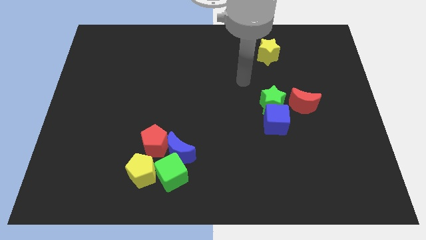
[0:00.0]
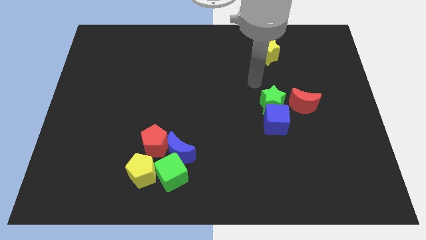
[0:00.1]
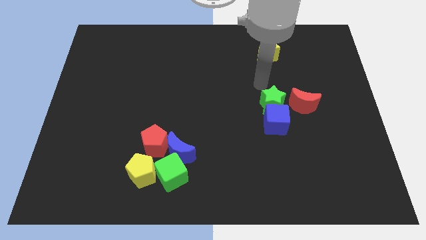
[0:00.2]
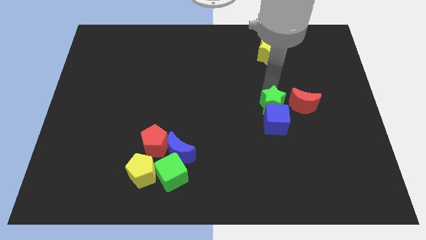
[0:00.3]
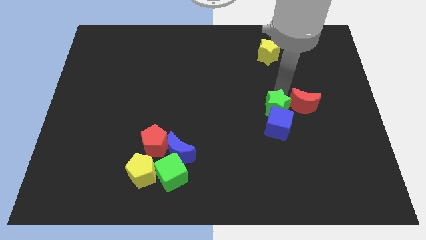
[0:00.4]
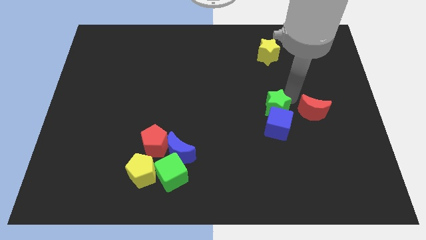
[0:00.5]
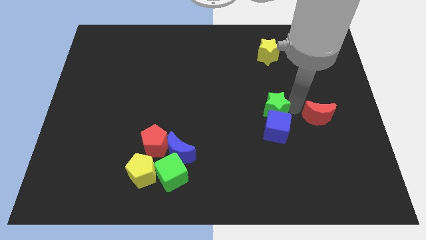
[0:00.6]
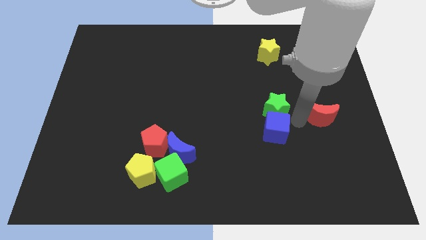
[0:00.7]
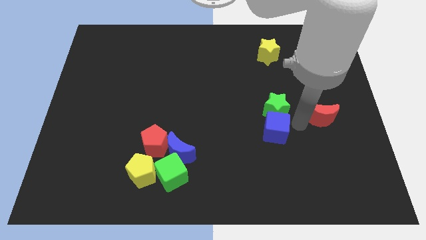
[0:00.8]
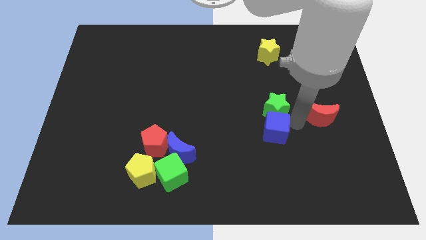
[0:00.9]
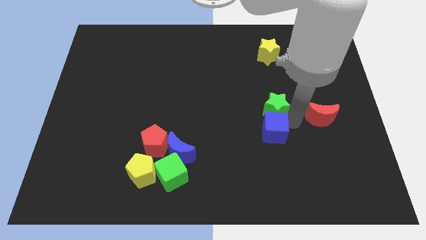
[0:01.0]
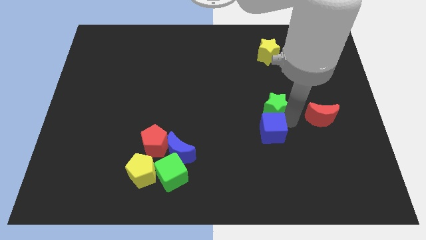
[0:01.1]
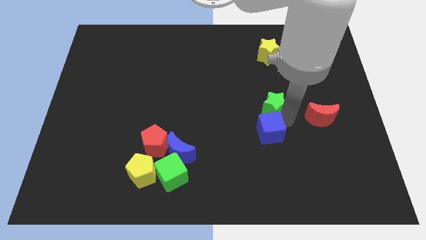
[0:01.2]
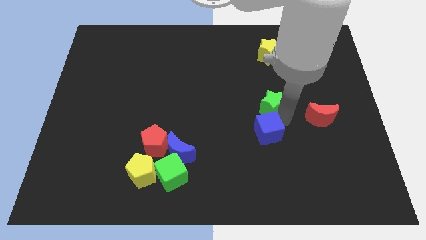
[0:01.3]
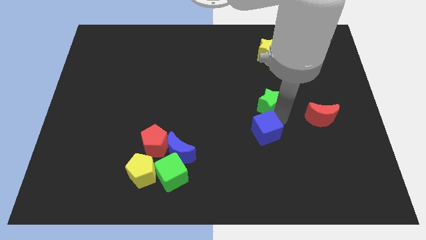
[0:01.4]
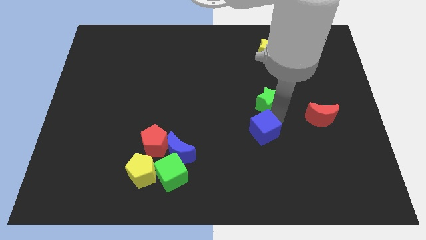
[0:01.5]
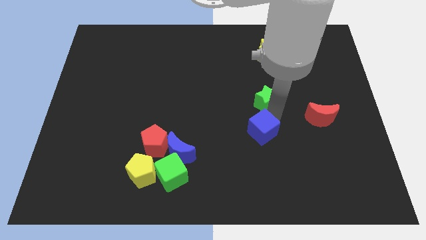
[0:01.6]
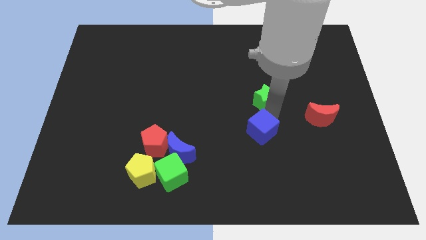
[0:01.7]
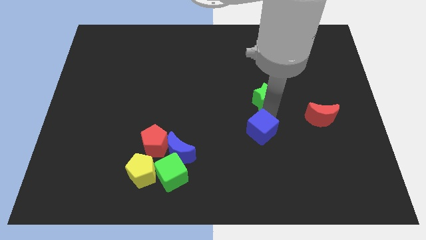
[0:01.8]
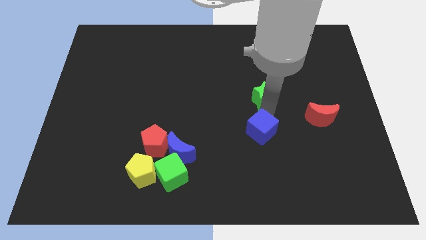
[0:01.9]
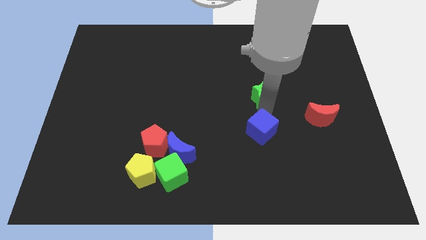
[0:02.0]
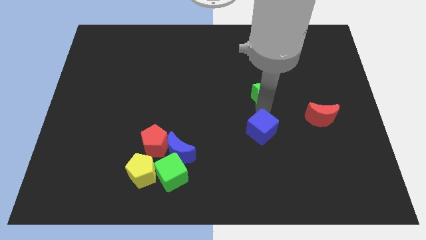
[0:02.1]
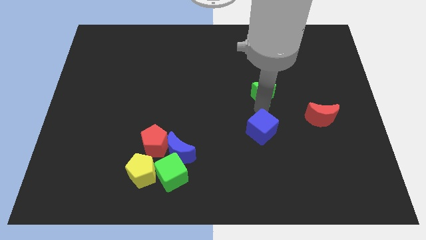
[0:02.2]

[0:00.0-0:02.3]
pull the green star apart from the blue cube and red moon

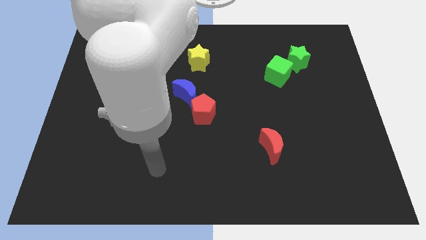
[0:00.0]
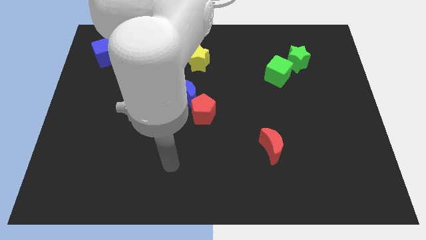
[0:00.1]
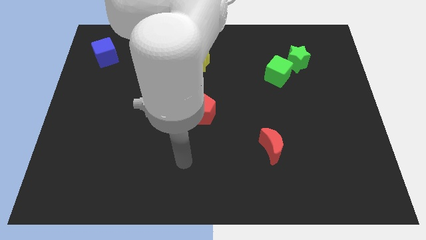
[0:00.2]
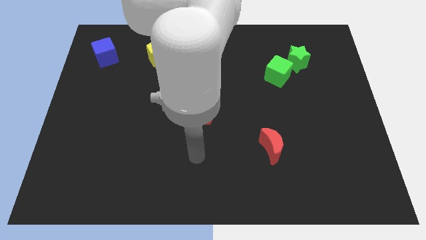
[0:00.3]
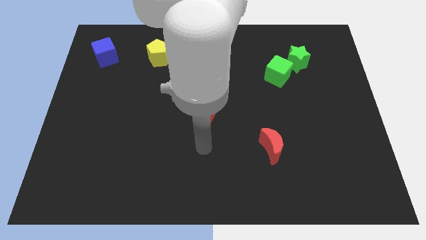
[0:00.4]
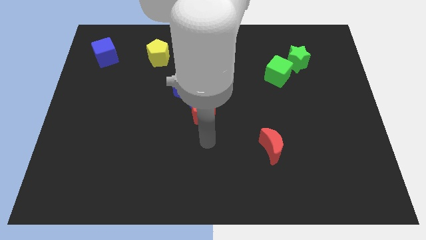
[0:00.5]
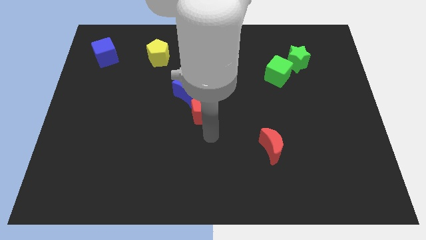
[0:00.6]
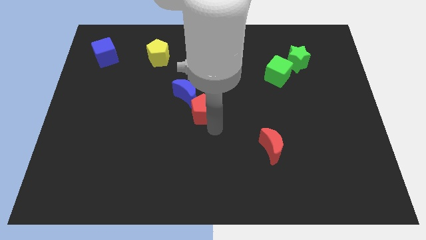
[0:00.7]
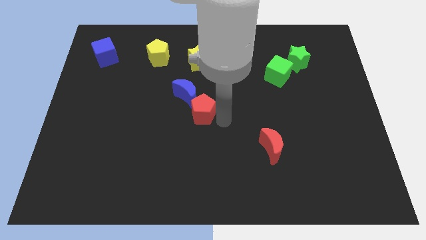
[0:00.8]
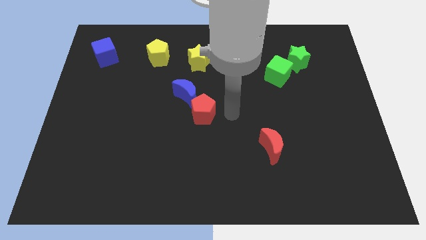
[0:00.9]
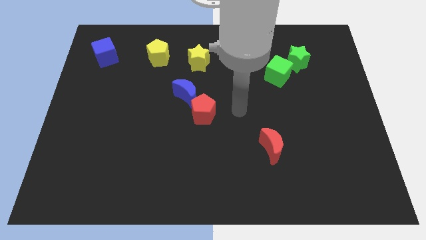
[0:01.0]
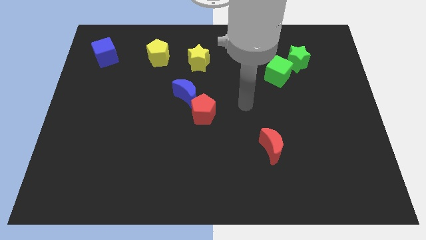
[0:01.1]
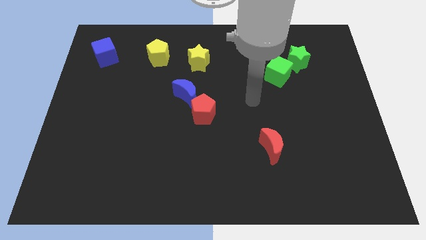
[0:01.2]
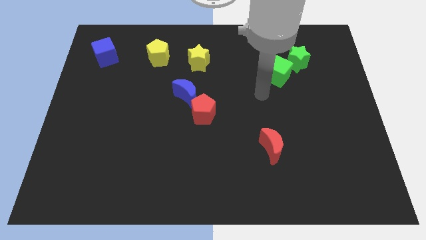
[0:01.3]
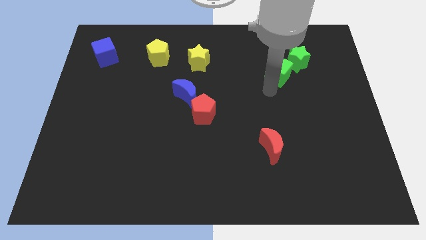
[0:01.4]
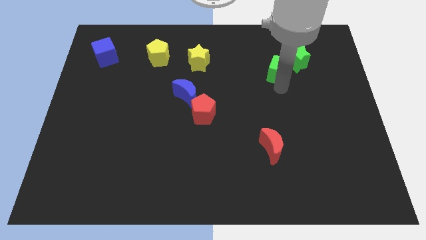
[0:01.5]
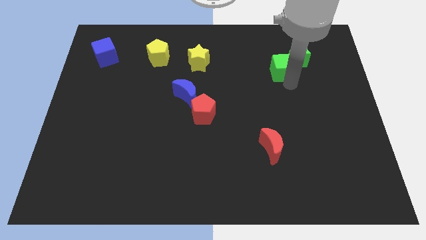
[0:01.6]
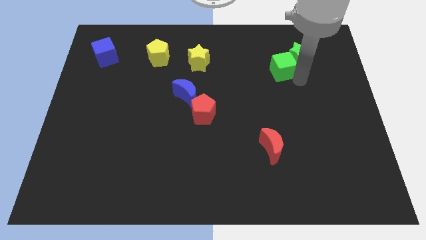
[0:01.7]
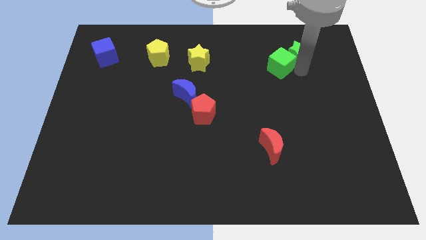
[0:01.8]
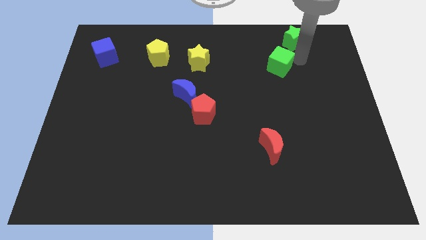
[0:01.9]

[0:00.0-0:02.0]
pull the green cube apart from the green star

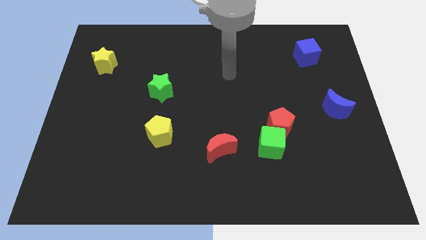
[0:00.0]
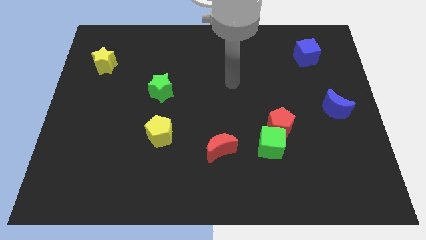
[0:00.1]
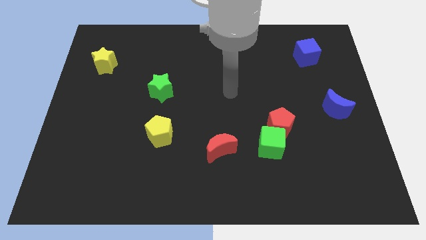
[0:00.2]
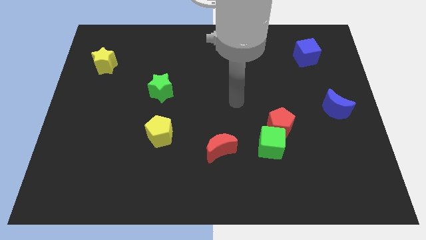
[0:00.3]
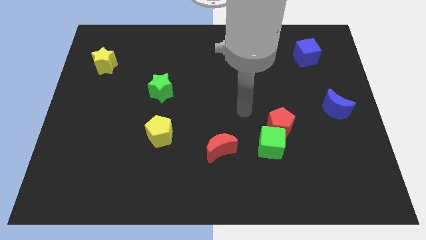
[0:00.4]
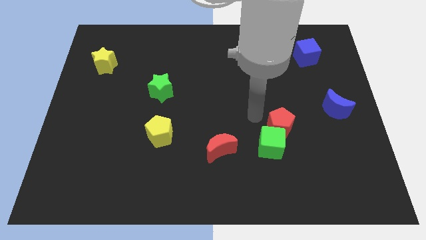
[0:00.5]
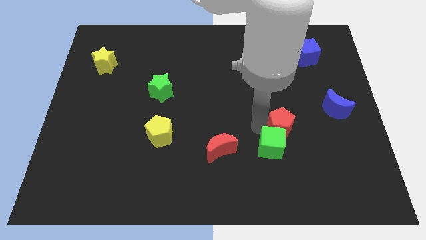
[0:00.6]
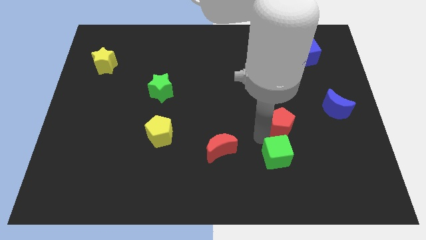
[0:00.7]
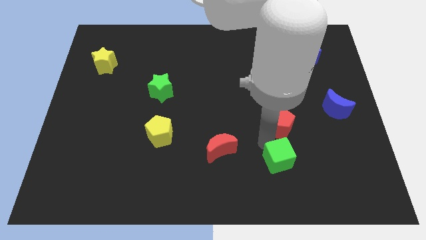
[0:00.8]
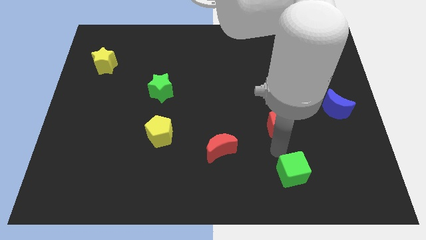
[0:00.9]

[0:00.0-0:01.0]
move the red pentagon away from the green cube

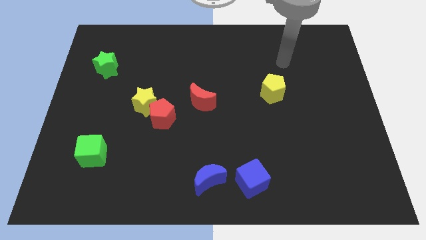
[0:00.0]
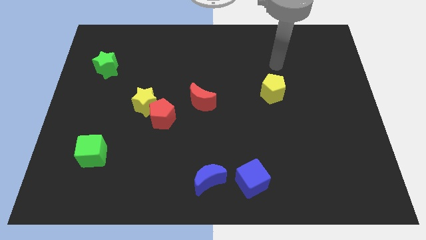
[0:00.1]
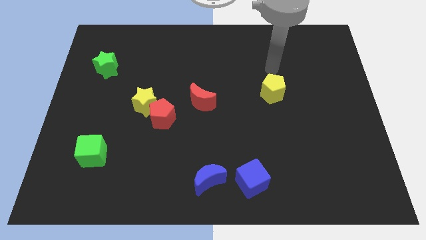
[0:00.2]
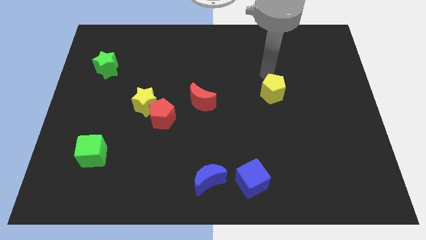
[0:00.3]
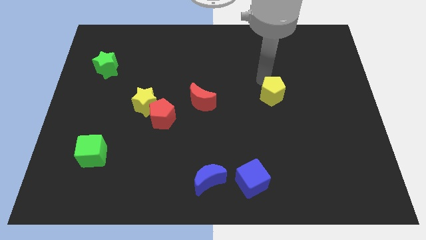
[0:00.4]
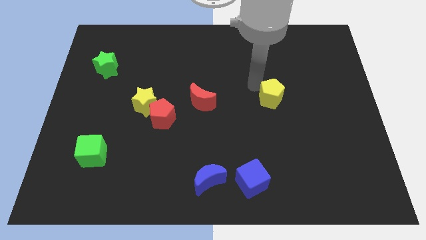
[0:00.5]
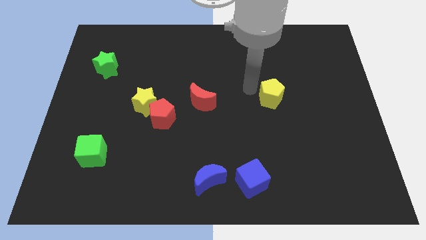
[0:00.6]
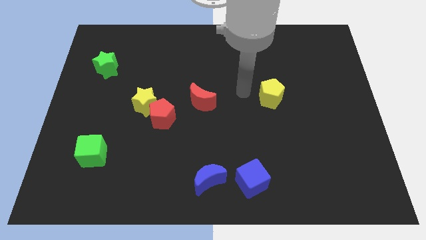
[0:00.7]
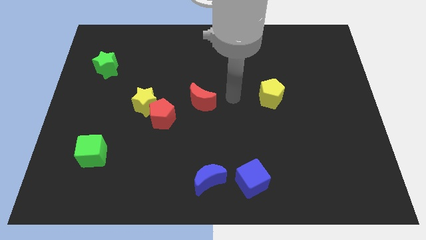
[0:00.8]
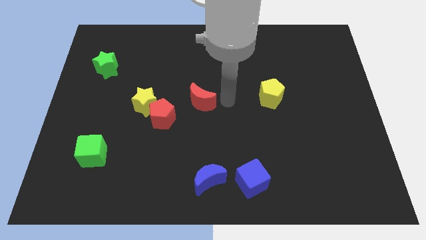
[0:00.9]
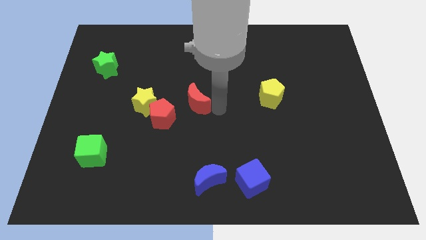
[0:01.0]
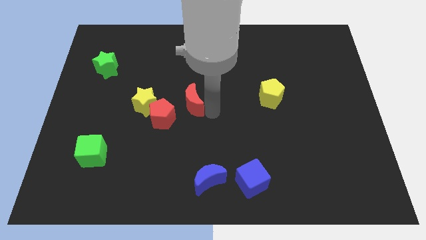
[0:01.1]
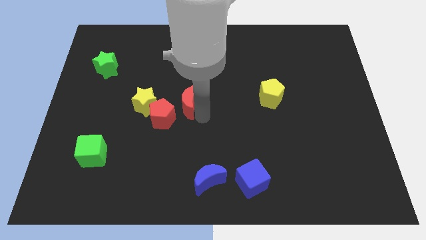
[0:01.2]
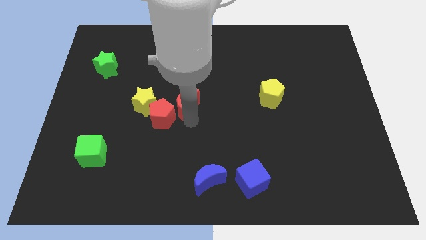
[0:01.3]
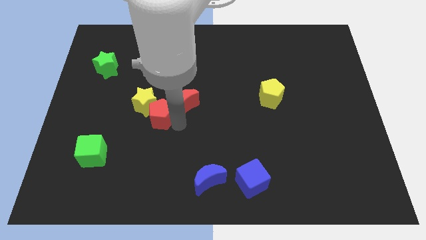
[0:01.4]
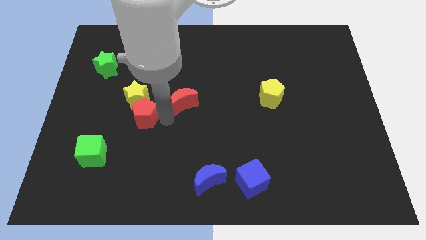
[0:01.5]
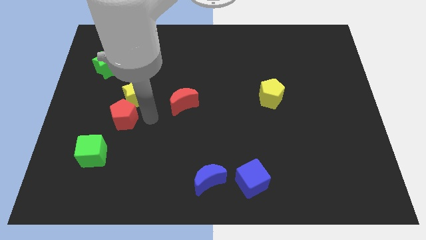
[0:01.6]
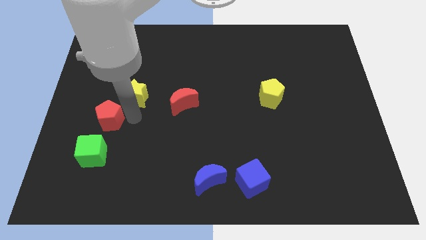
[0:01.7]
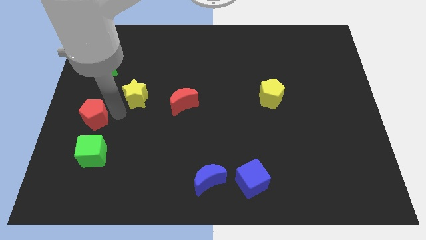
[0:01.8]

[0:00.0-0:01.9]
pull the yellow star apart from the red pentagon

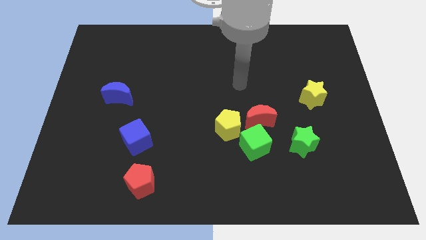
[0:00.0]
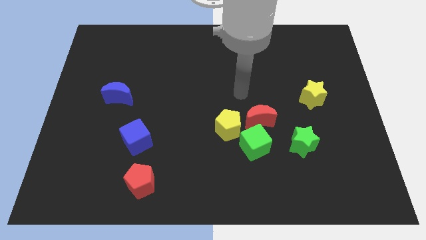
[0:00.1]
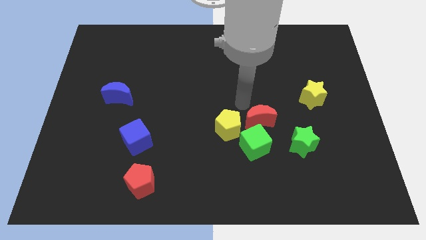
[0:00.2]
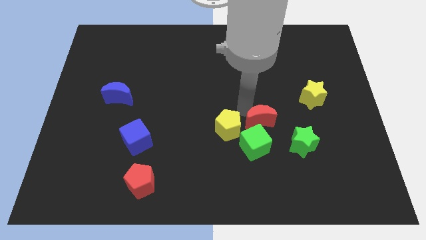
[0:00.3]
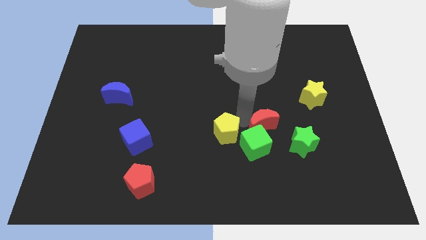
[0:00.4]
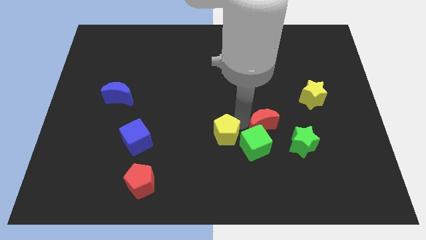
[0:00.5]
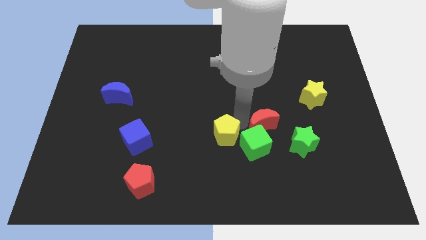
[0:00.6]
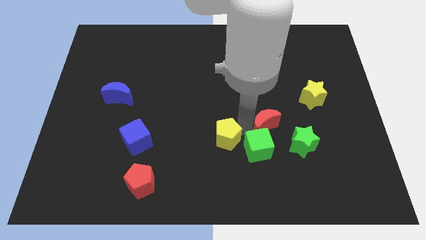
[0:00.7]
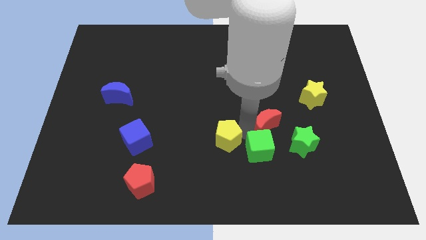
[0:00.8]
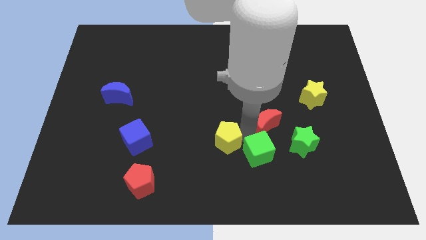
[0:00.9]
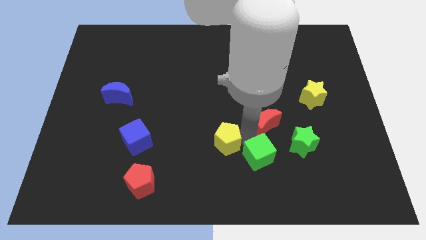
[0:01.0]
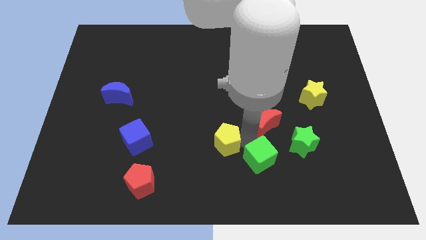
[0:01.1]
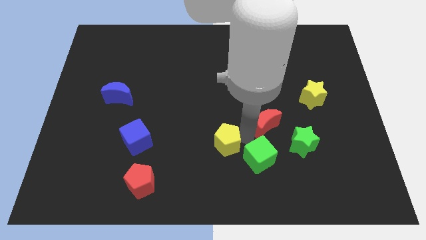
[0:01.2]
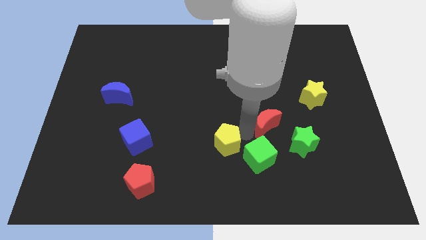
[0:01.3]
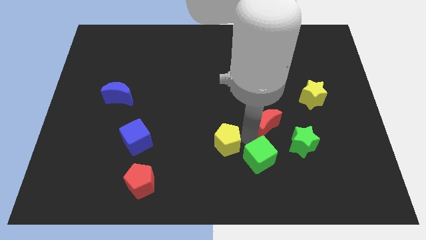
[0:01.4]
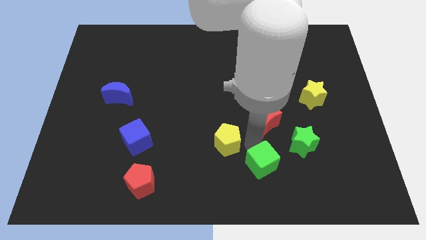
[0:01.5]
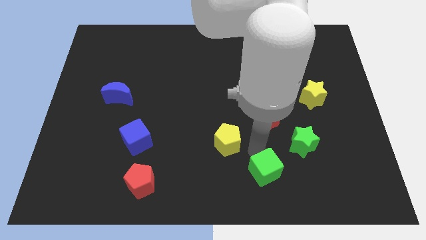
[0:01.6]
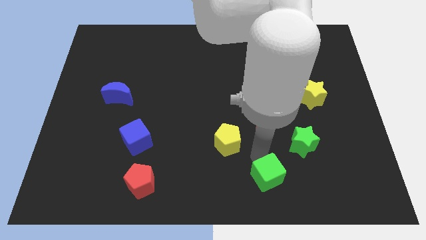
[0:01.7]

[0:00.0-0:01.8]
move the green cube away from the red moon and yellow pentagon
